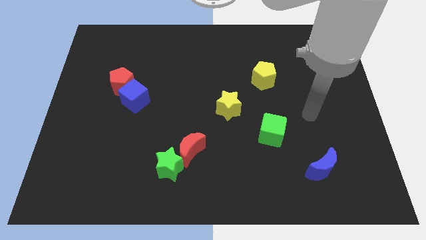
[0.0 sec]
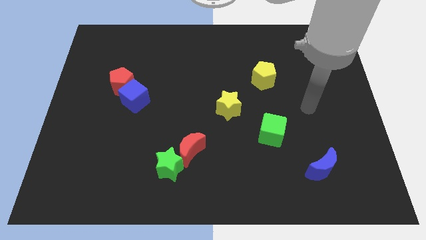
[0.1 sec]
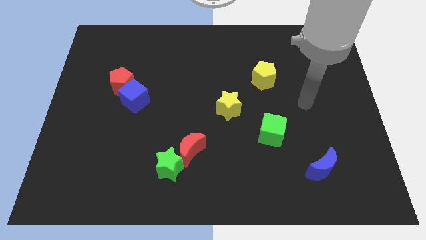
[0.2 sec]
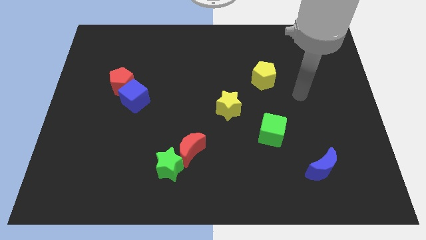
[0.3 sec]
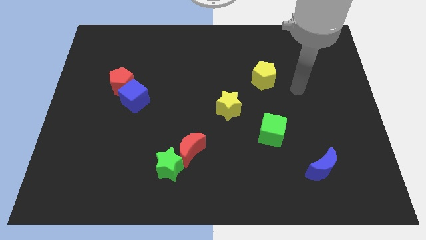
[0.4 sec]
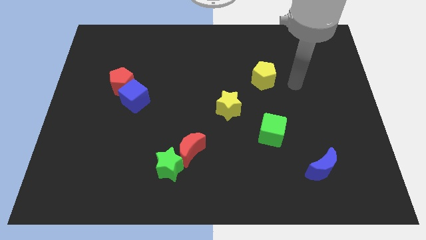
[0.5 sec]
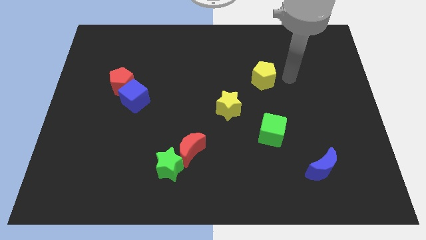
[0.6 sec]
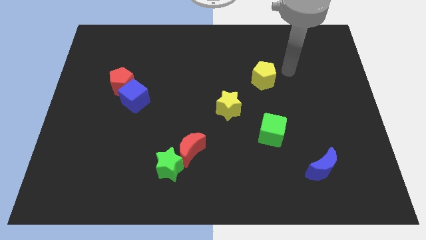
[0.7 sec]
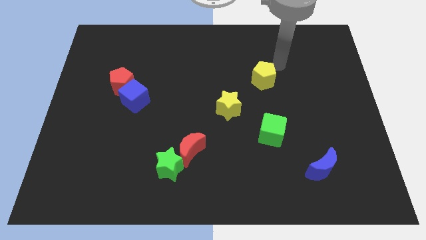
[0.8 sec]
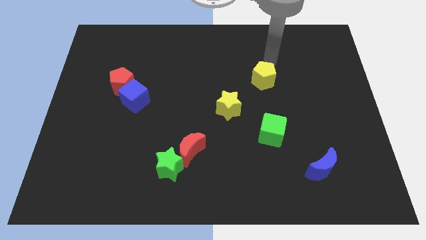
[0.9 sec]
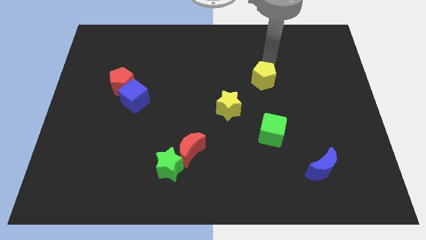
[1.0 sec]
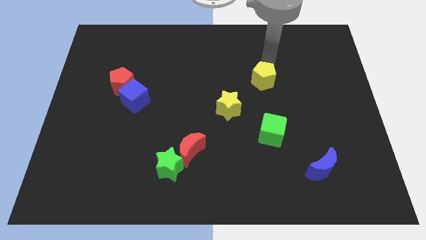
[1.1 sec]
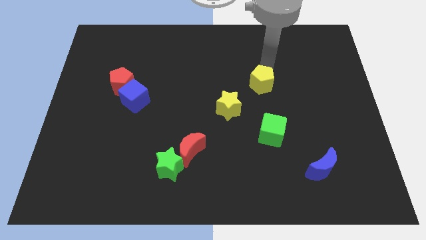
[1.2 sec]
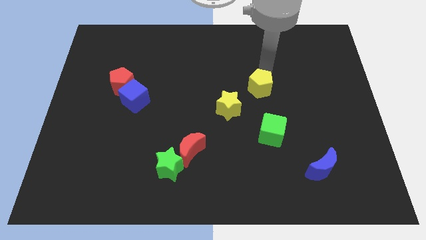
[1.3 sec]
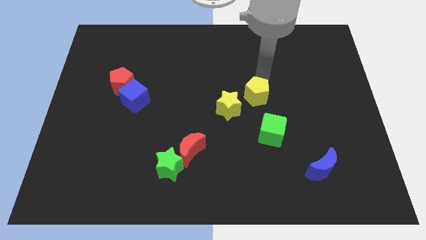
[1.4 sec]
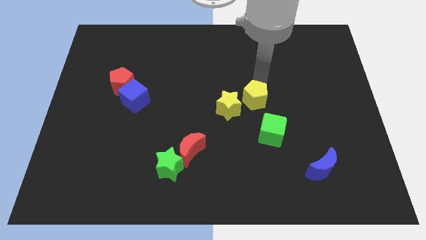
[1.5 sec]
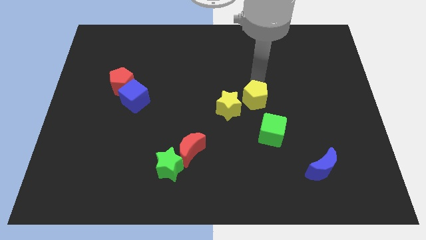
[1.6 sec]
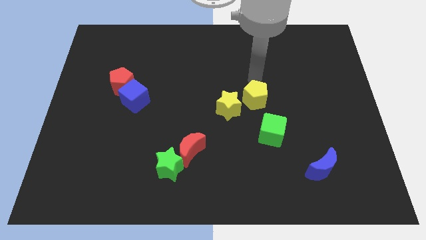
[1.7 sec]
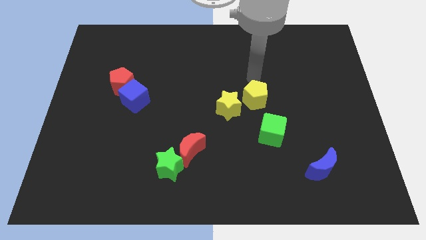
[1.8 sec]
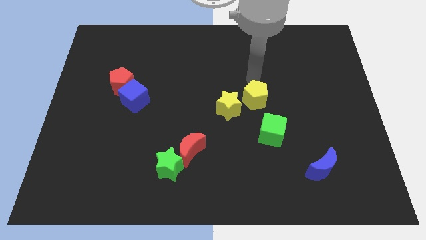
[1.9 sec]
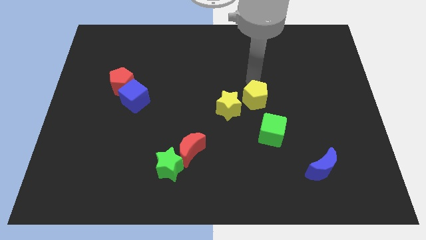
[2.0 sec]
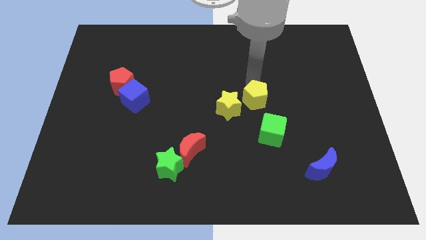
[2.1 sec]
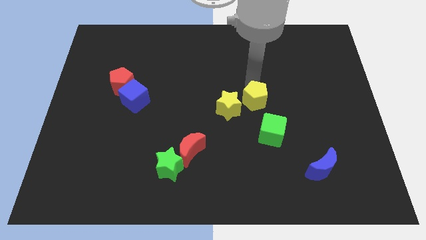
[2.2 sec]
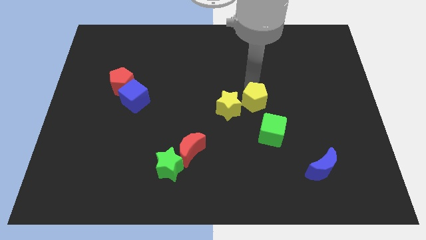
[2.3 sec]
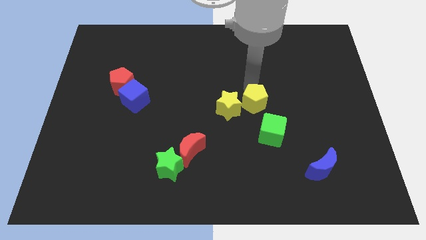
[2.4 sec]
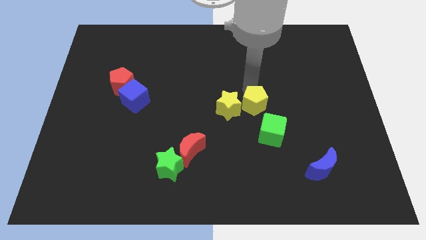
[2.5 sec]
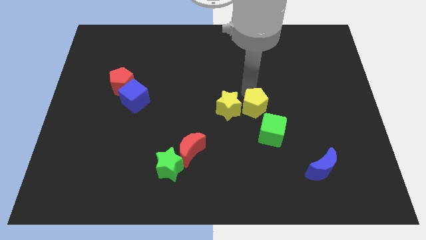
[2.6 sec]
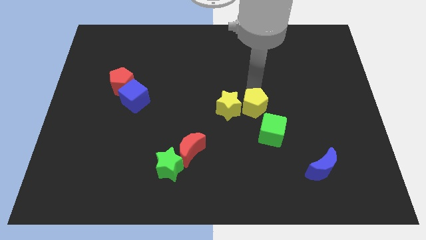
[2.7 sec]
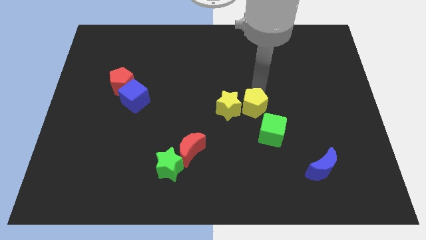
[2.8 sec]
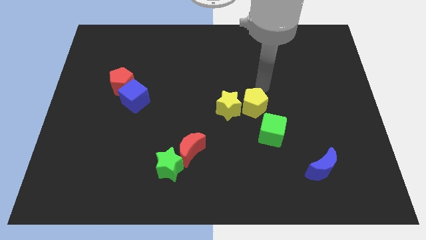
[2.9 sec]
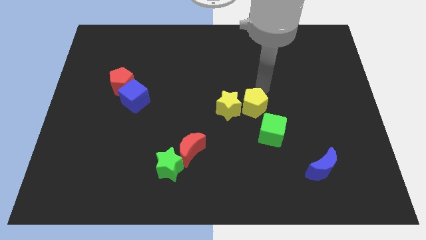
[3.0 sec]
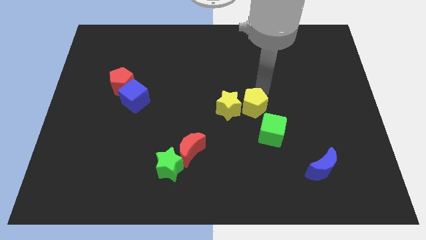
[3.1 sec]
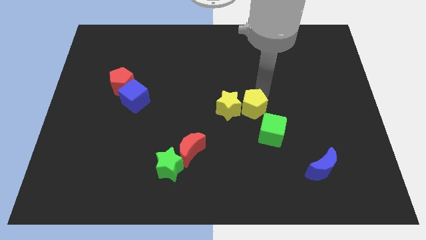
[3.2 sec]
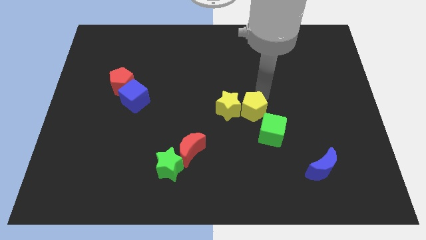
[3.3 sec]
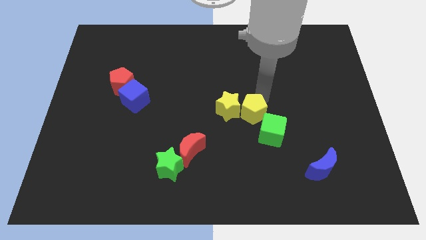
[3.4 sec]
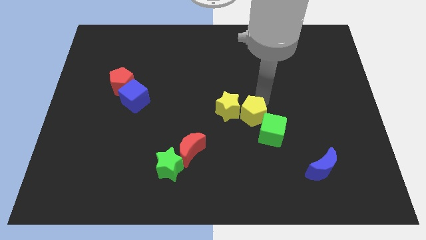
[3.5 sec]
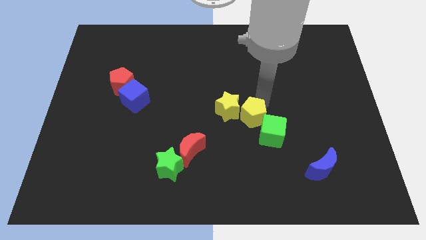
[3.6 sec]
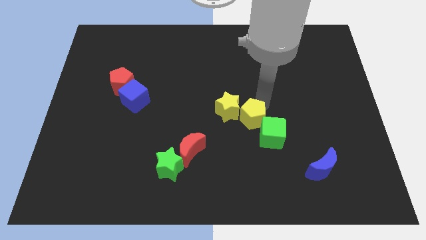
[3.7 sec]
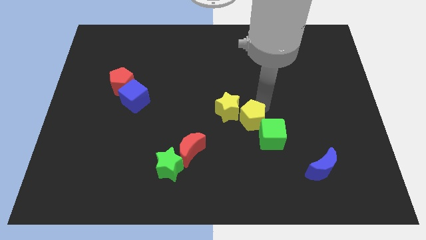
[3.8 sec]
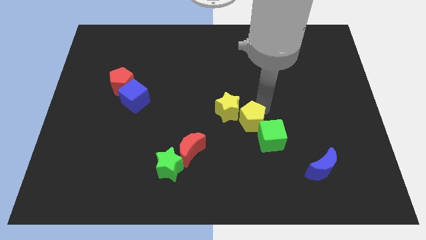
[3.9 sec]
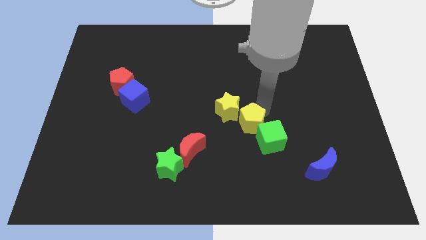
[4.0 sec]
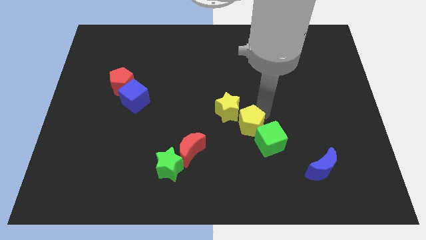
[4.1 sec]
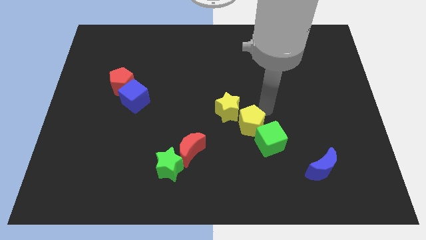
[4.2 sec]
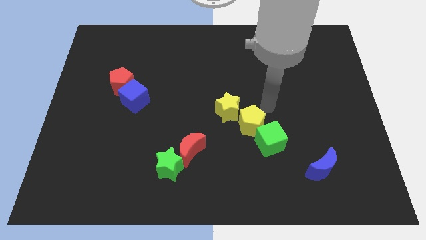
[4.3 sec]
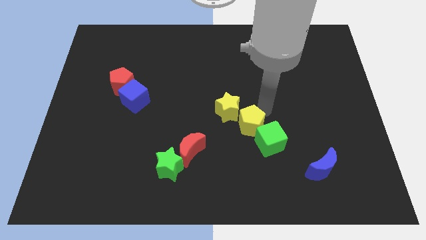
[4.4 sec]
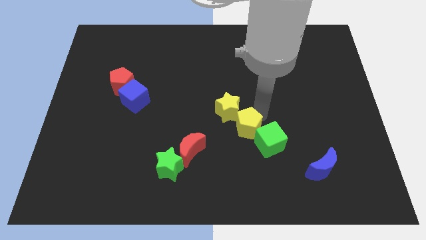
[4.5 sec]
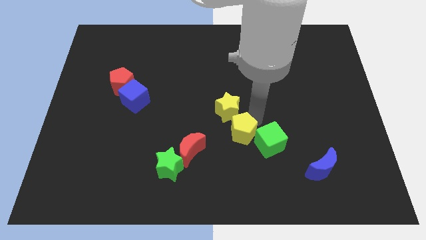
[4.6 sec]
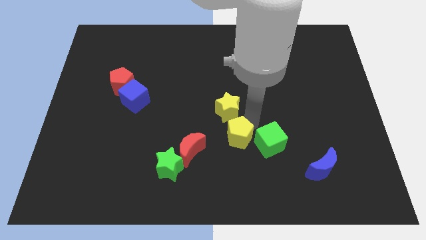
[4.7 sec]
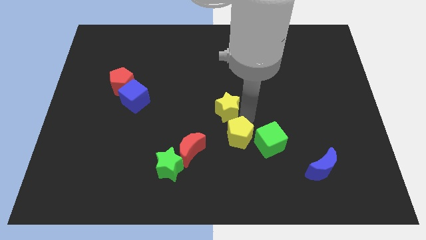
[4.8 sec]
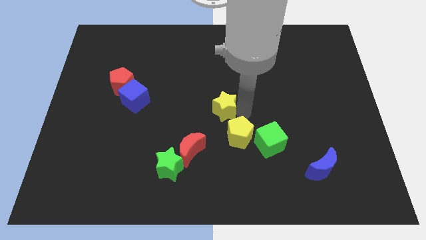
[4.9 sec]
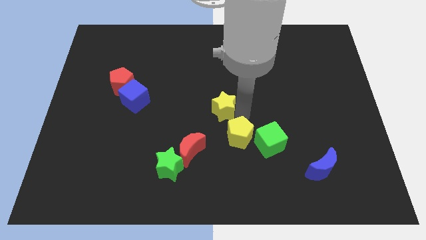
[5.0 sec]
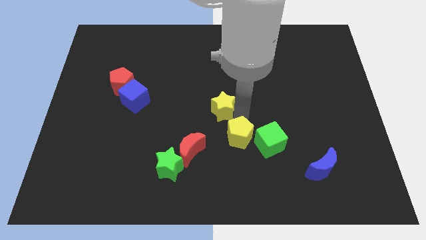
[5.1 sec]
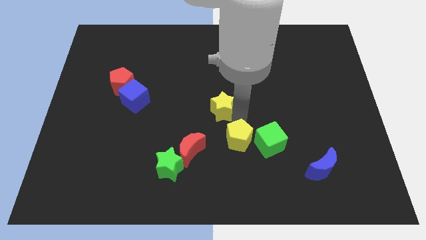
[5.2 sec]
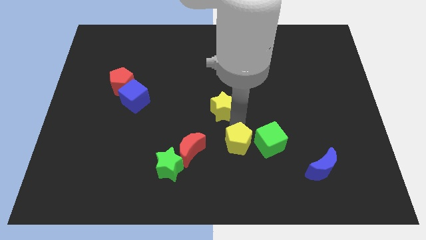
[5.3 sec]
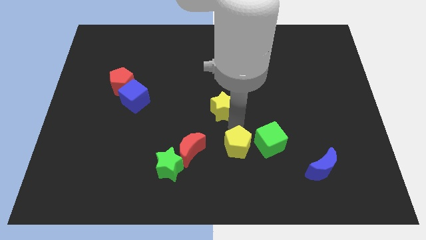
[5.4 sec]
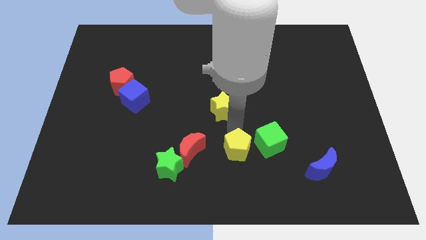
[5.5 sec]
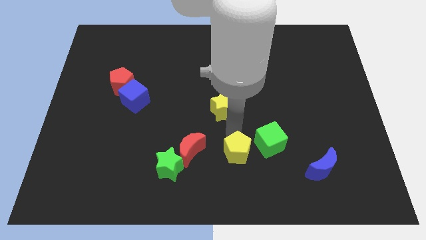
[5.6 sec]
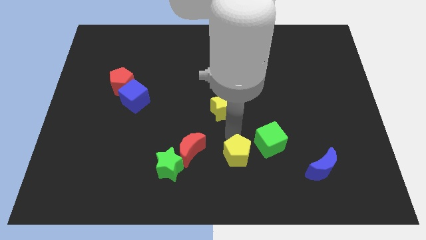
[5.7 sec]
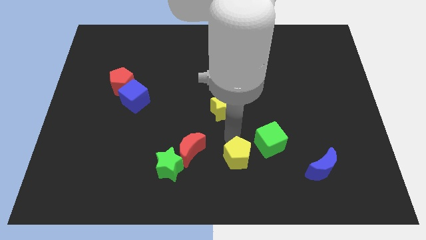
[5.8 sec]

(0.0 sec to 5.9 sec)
slide the yellow pentagon to the bottom side
